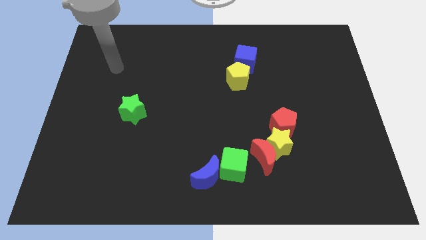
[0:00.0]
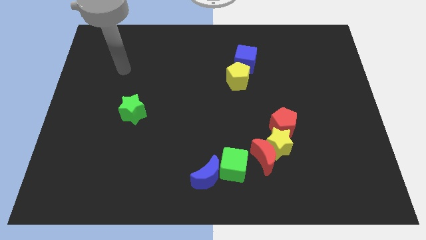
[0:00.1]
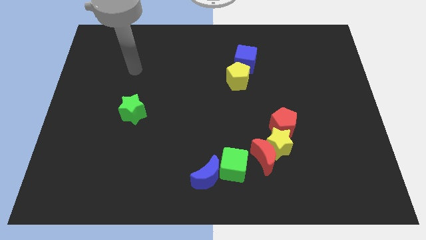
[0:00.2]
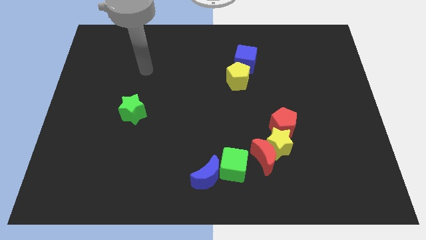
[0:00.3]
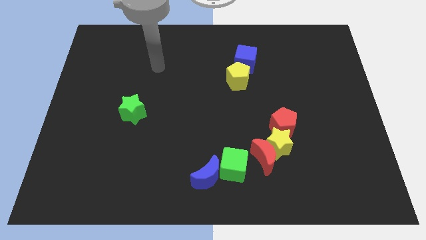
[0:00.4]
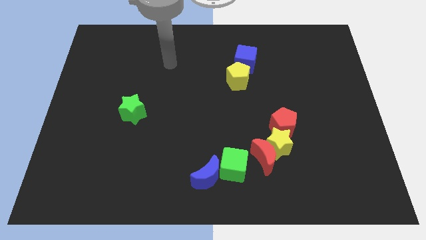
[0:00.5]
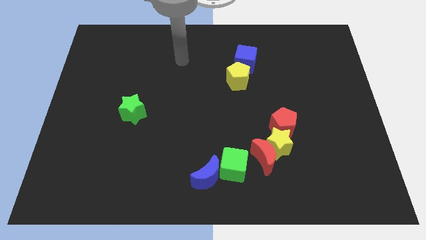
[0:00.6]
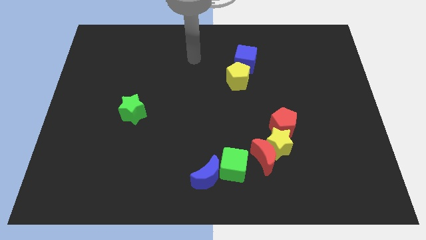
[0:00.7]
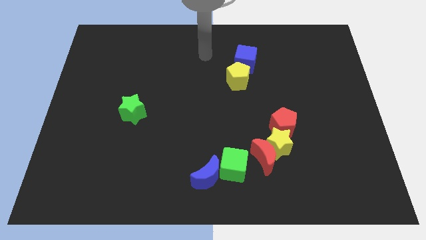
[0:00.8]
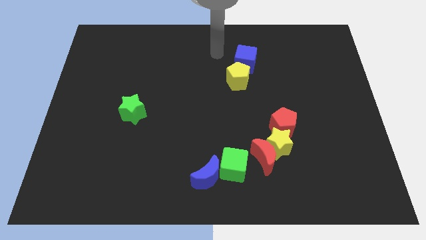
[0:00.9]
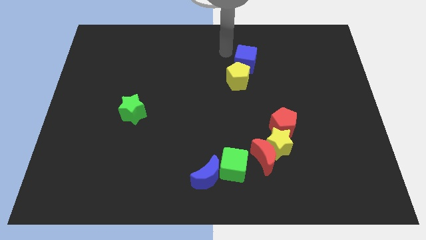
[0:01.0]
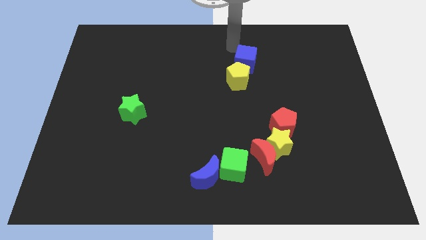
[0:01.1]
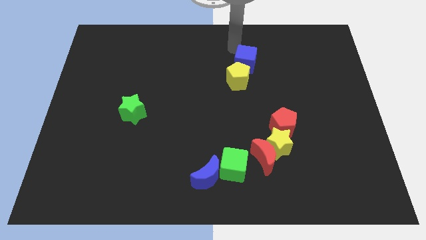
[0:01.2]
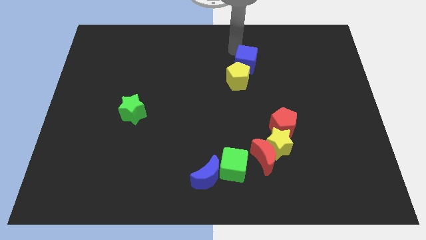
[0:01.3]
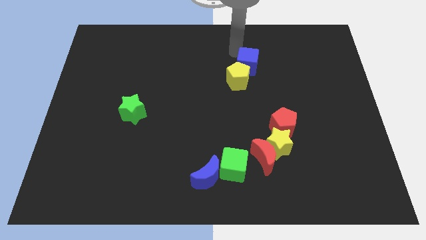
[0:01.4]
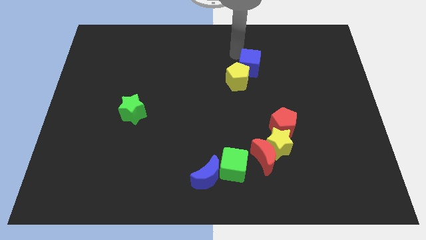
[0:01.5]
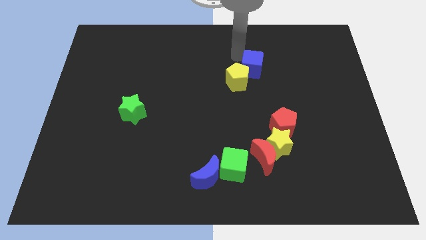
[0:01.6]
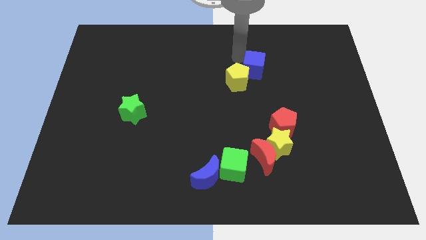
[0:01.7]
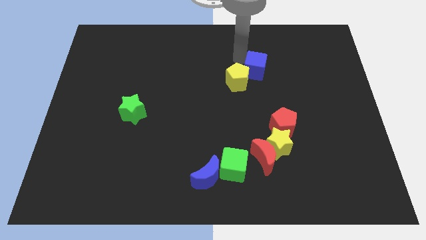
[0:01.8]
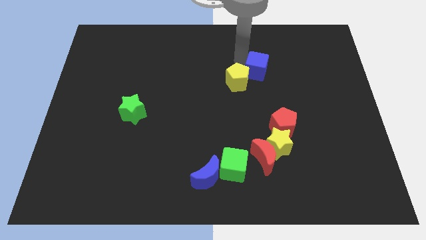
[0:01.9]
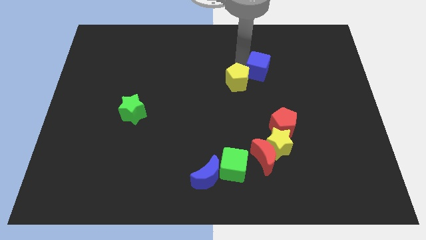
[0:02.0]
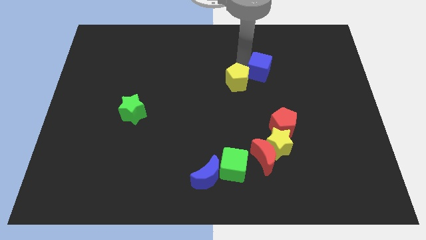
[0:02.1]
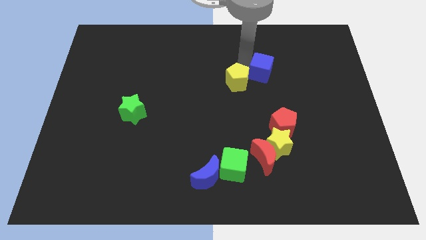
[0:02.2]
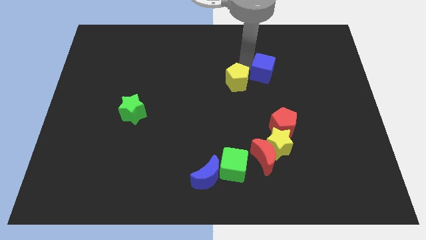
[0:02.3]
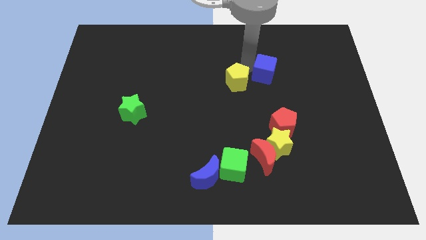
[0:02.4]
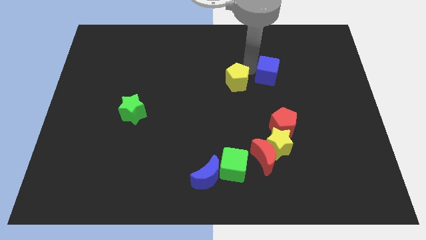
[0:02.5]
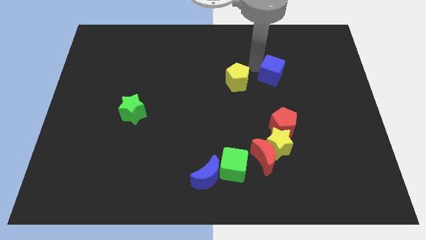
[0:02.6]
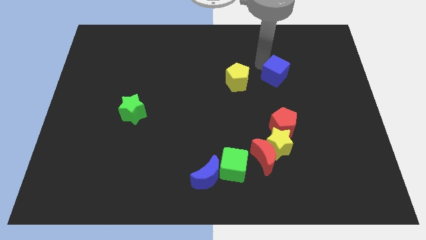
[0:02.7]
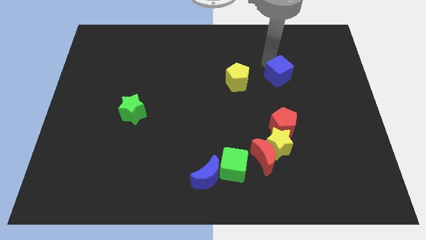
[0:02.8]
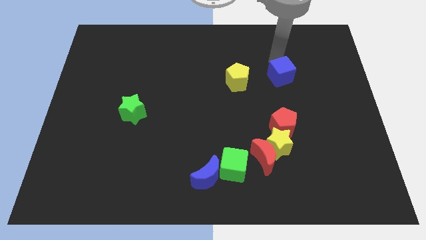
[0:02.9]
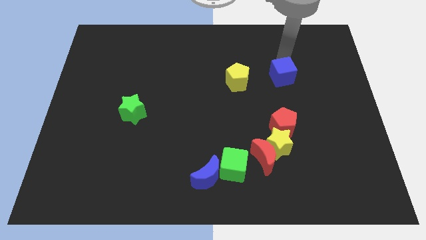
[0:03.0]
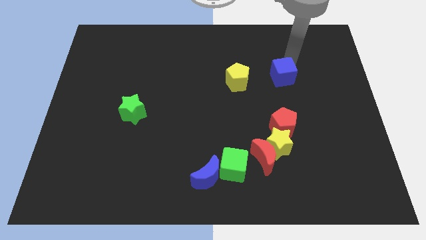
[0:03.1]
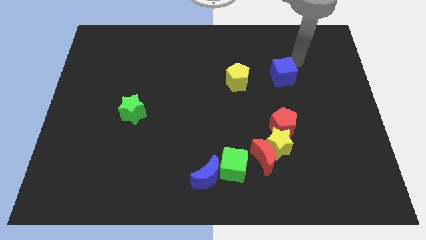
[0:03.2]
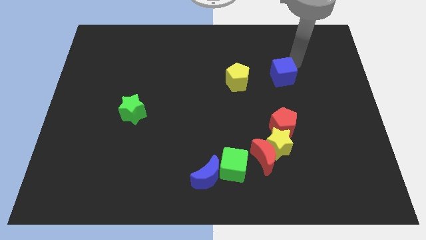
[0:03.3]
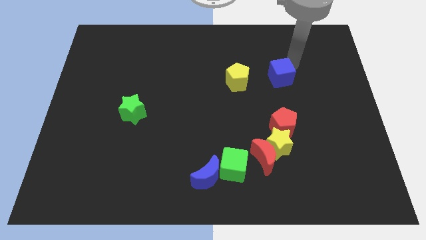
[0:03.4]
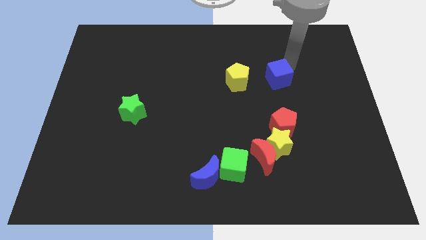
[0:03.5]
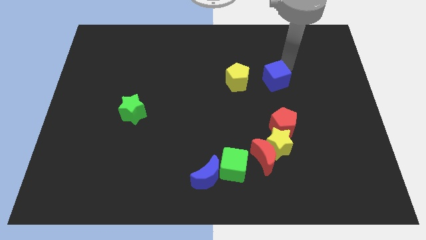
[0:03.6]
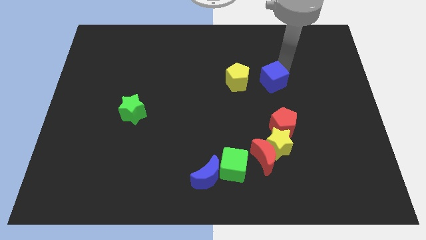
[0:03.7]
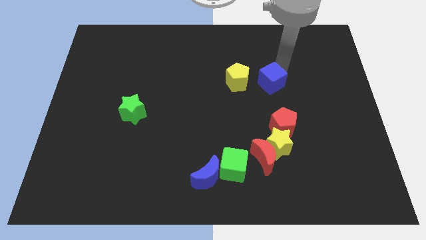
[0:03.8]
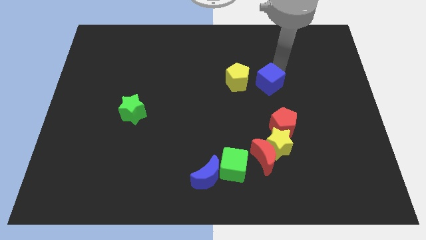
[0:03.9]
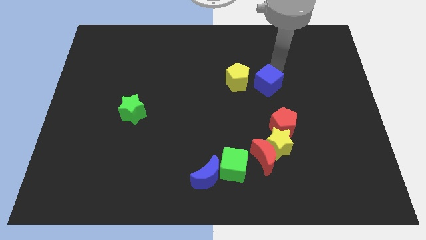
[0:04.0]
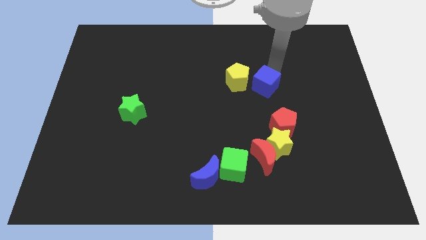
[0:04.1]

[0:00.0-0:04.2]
move the blue cube down a bit

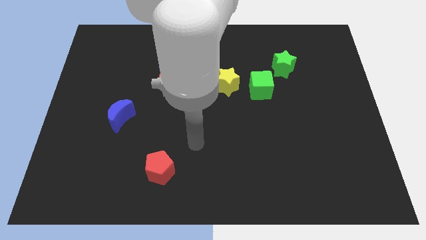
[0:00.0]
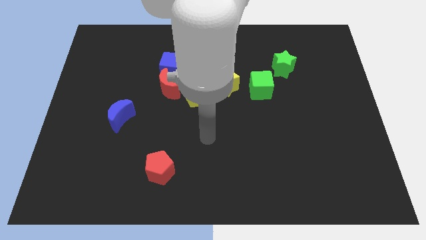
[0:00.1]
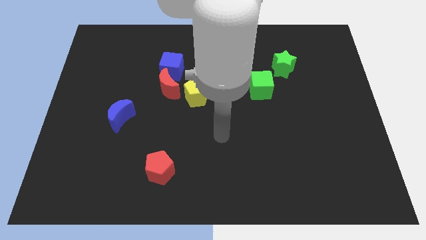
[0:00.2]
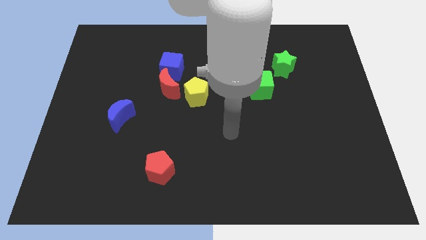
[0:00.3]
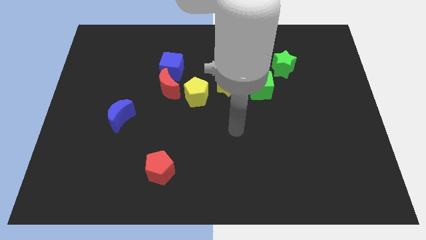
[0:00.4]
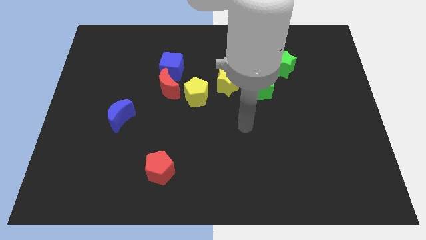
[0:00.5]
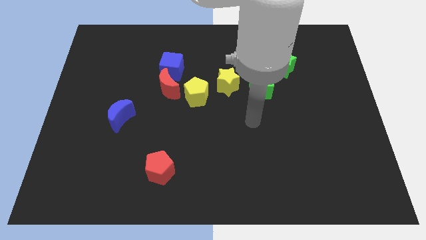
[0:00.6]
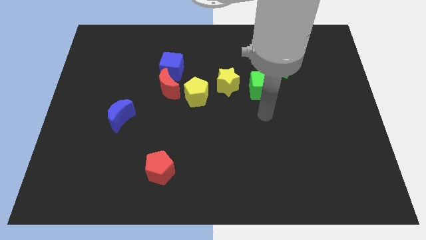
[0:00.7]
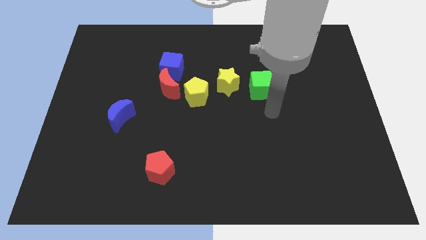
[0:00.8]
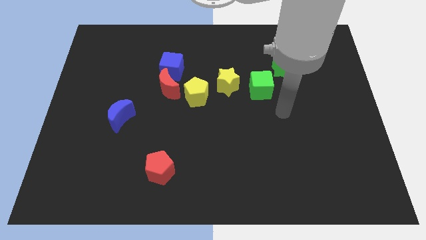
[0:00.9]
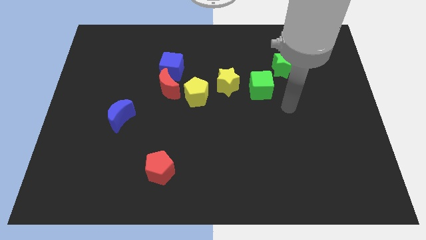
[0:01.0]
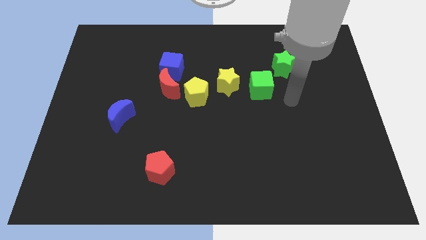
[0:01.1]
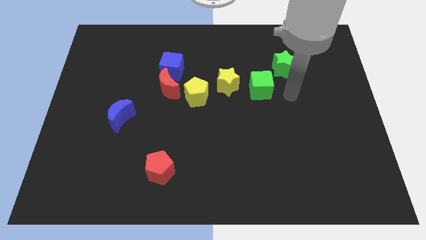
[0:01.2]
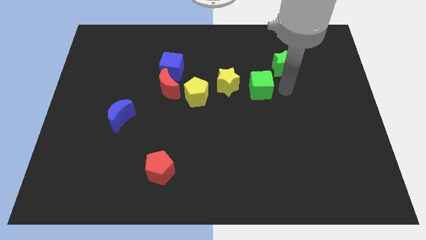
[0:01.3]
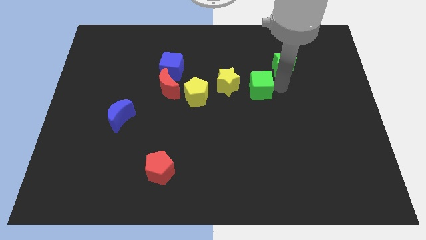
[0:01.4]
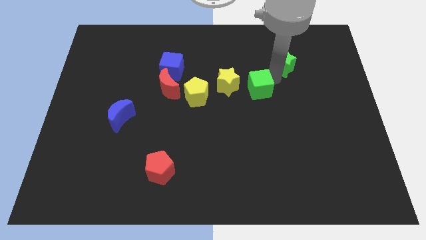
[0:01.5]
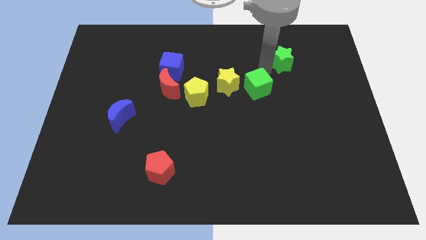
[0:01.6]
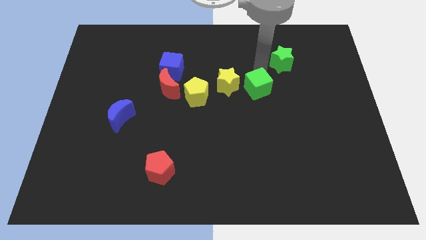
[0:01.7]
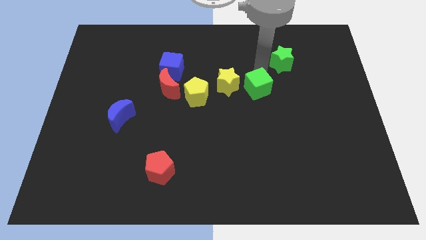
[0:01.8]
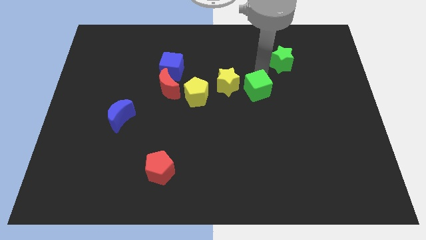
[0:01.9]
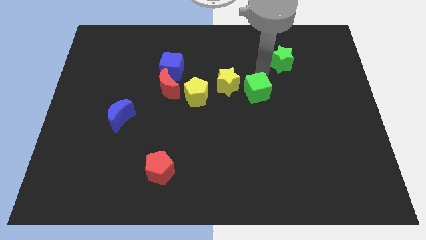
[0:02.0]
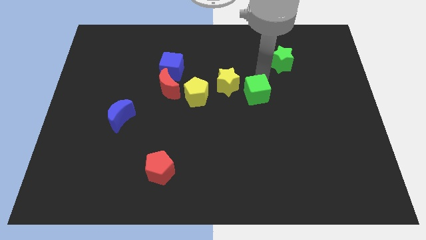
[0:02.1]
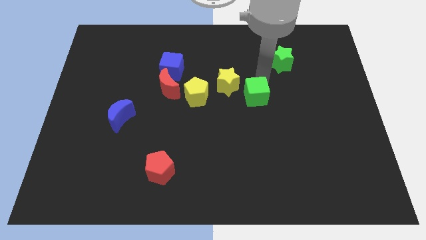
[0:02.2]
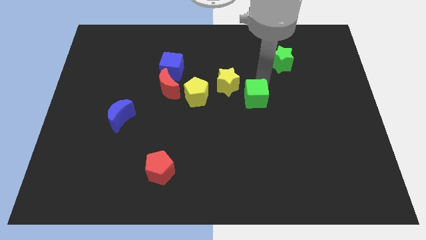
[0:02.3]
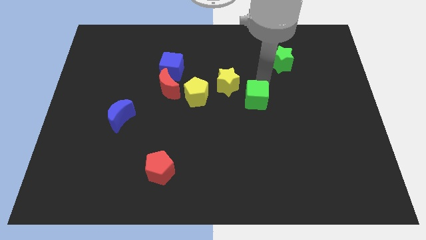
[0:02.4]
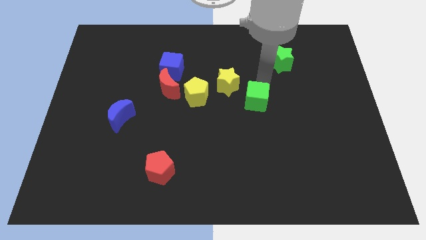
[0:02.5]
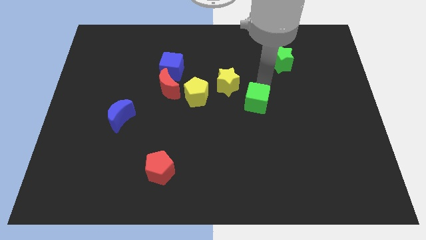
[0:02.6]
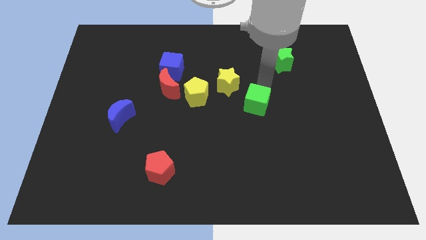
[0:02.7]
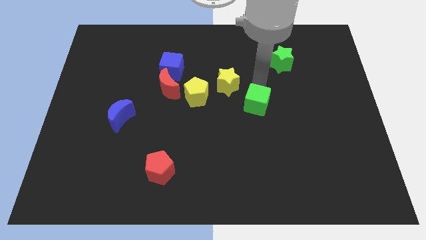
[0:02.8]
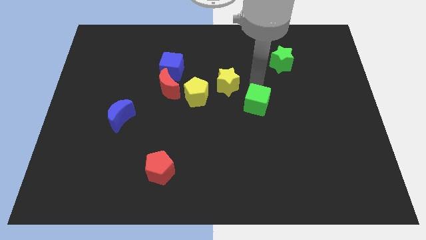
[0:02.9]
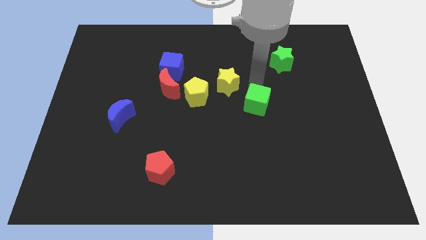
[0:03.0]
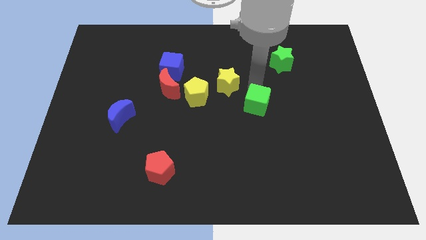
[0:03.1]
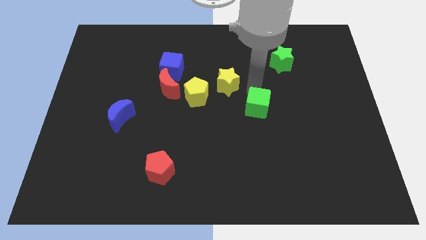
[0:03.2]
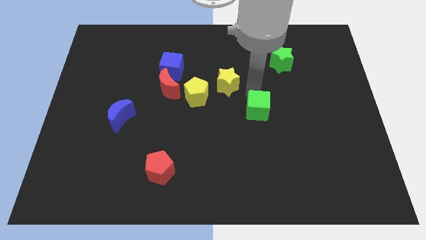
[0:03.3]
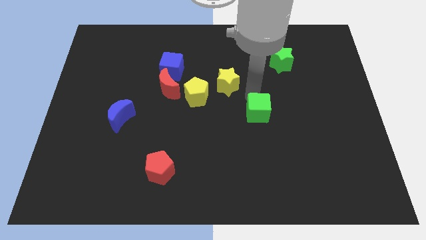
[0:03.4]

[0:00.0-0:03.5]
slide the green cube slightly downwards

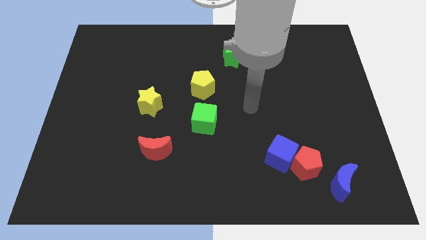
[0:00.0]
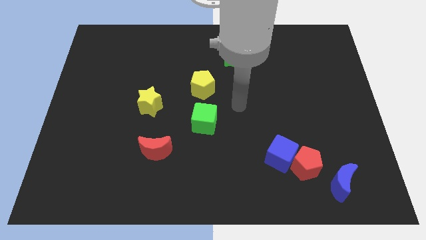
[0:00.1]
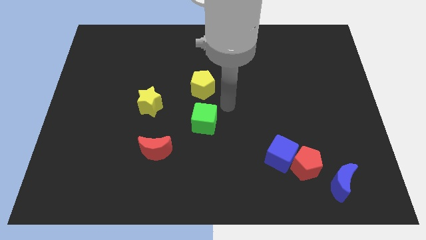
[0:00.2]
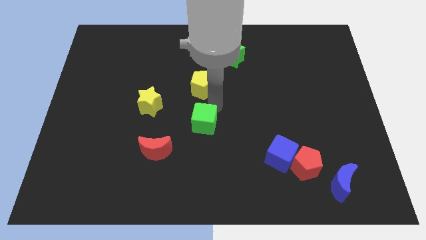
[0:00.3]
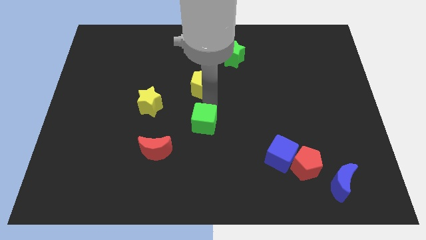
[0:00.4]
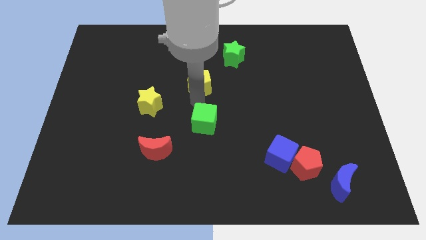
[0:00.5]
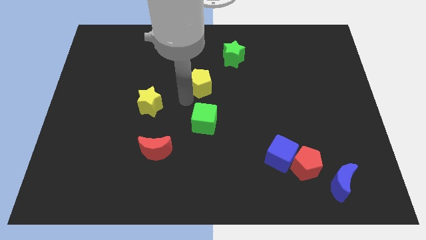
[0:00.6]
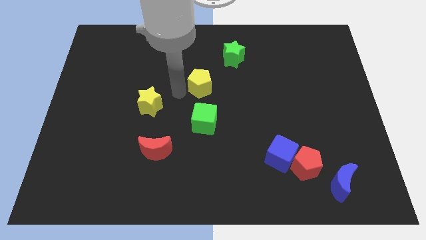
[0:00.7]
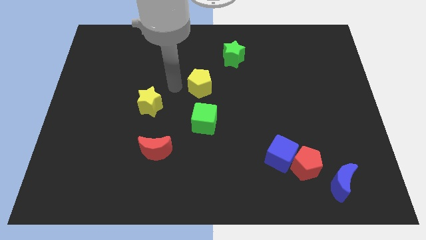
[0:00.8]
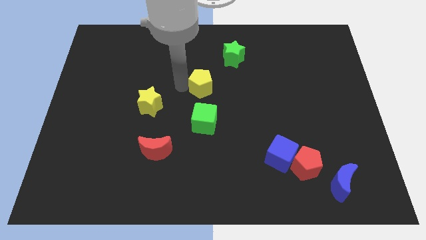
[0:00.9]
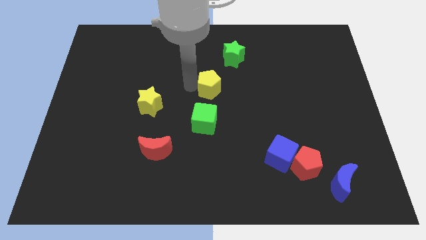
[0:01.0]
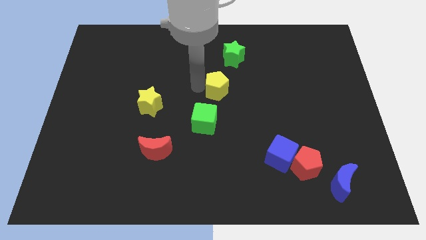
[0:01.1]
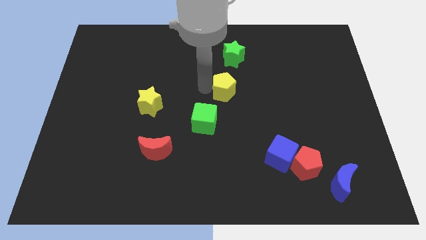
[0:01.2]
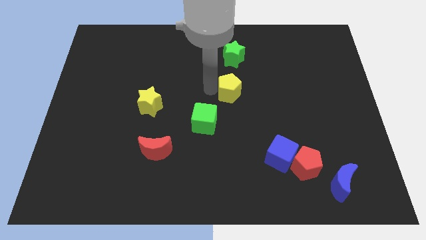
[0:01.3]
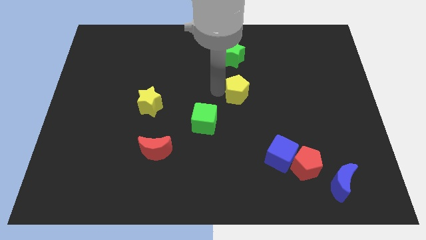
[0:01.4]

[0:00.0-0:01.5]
slightly push the yellow pentagon to the right
